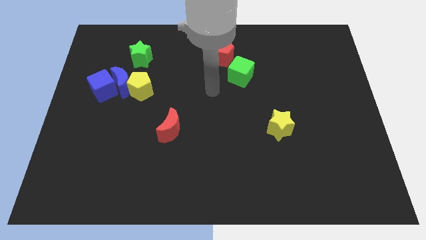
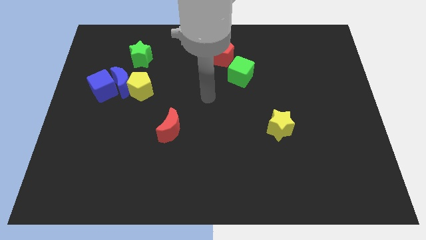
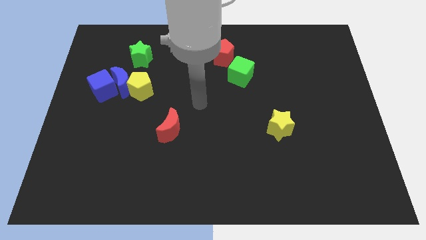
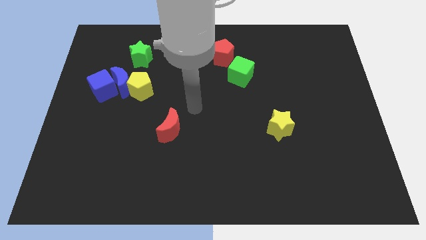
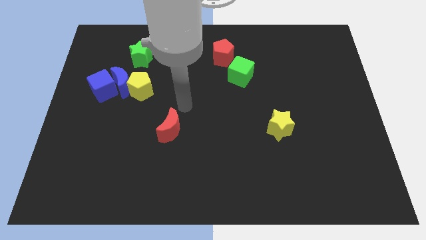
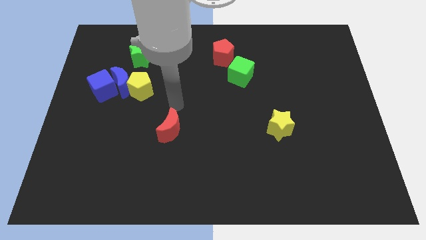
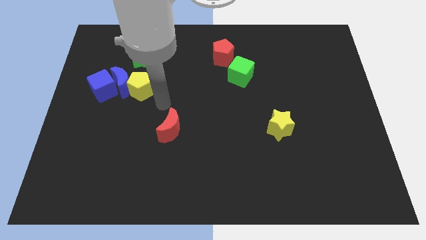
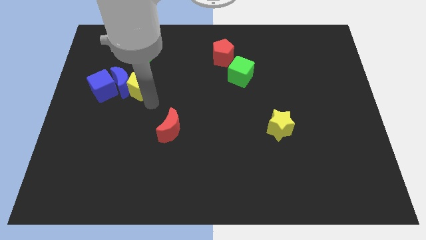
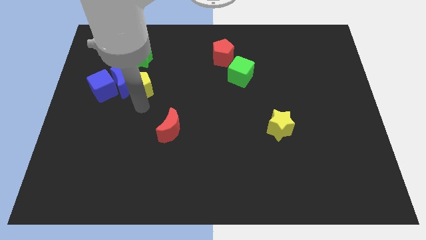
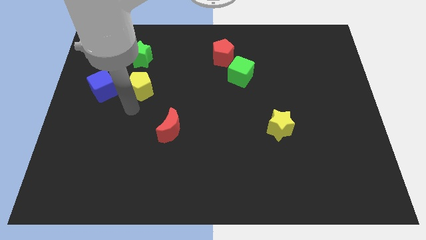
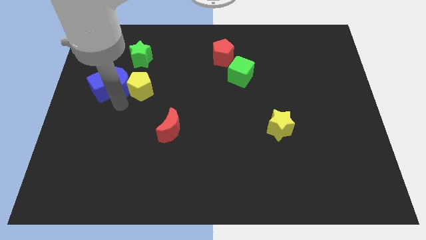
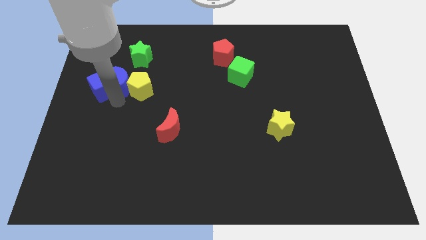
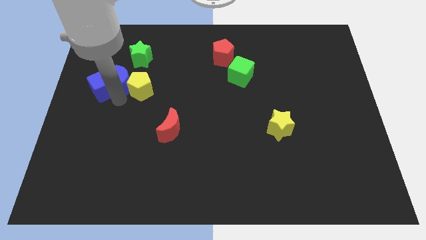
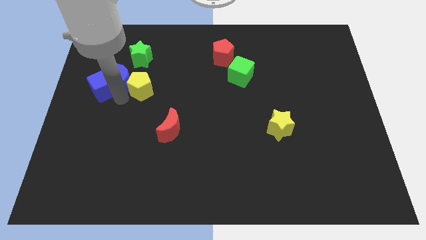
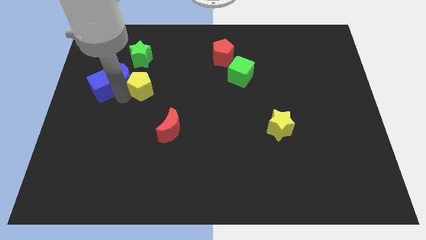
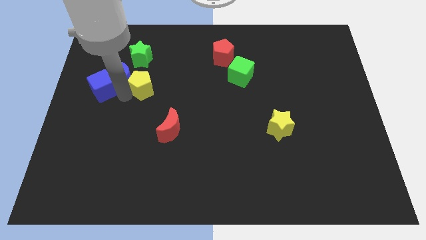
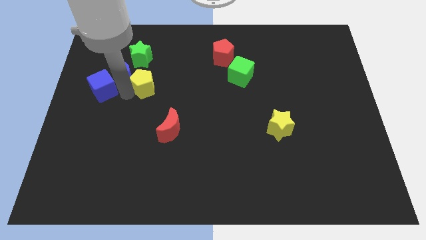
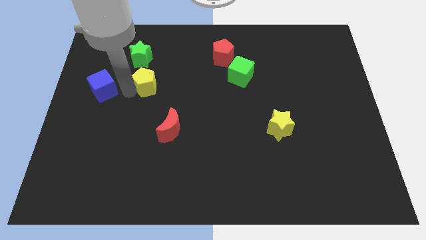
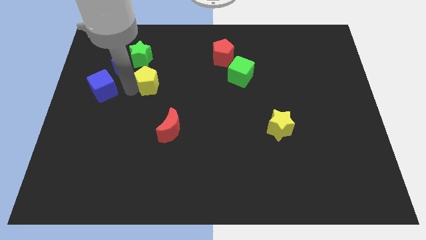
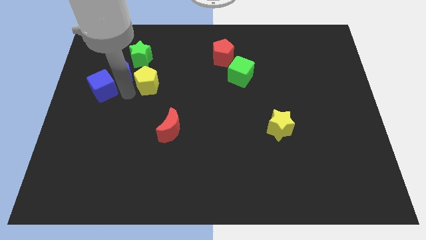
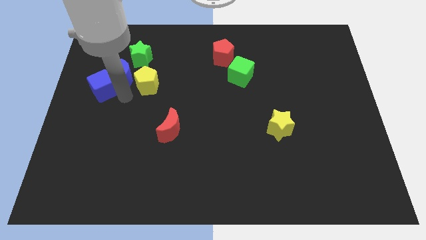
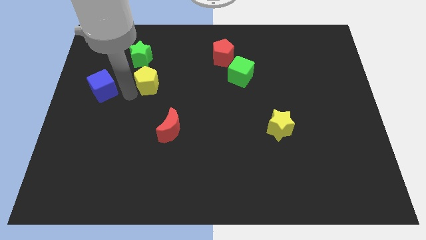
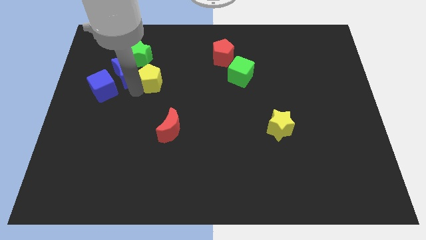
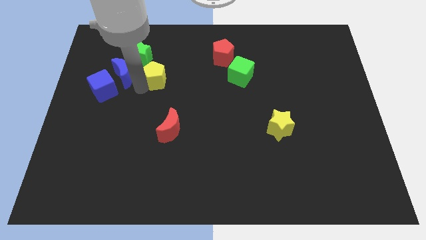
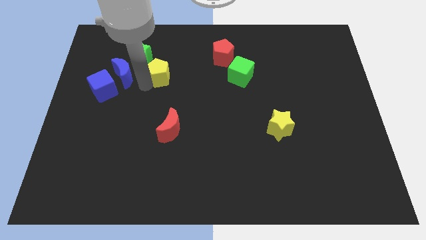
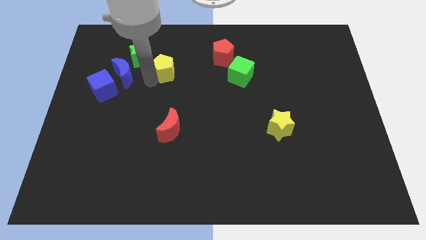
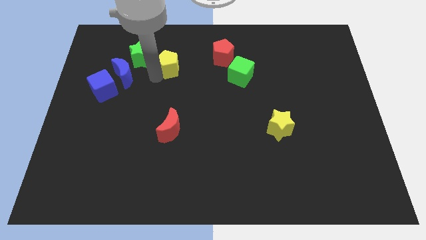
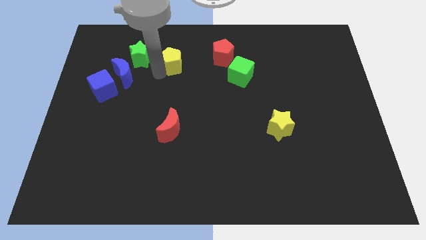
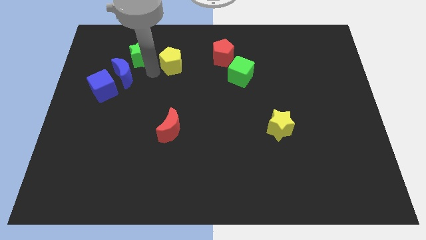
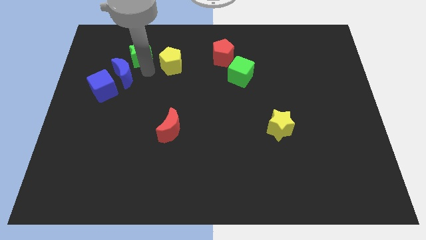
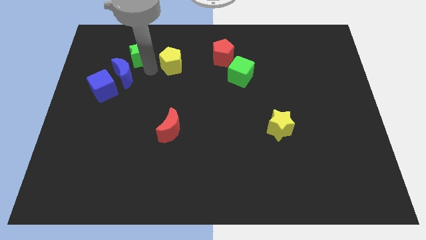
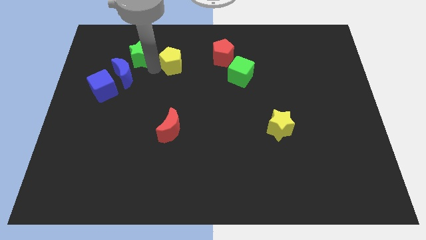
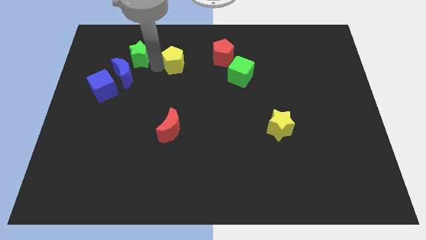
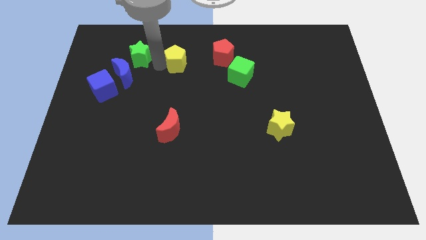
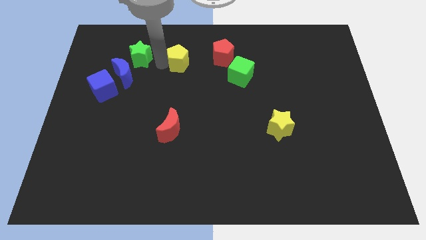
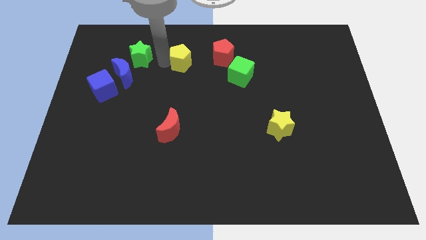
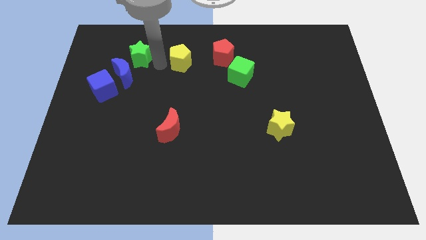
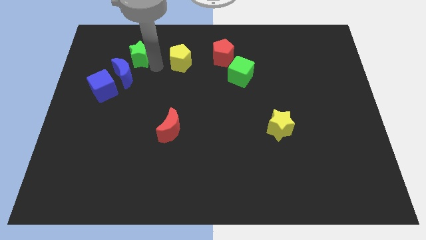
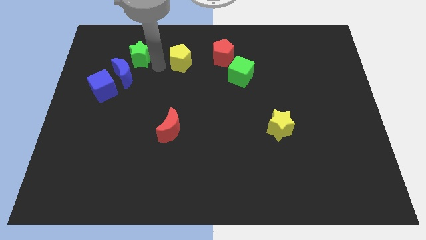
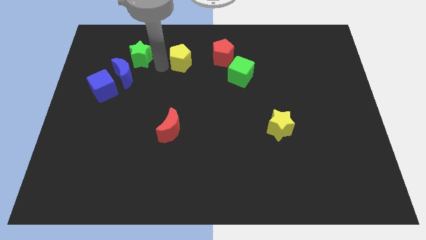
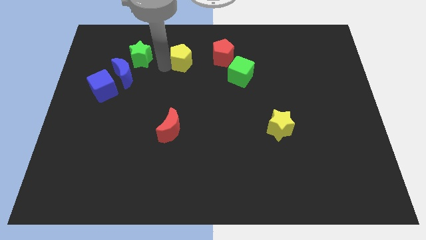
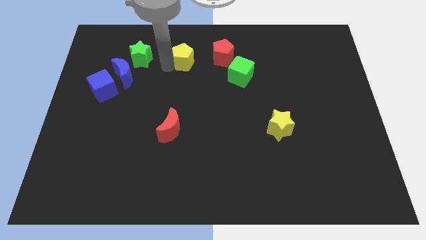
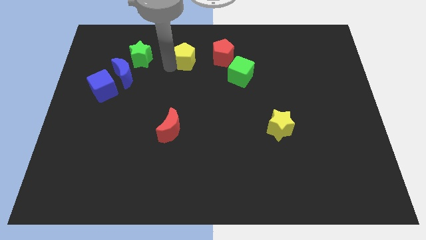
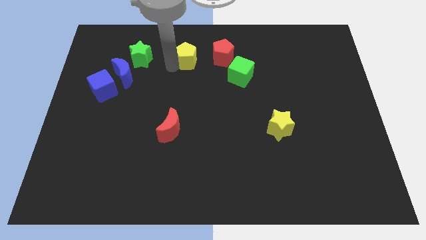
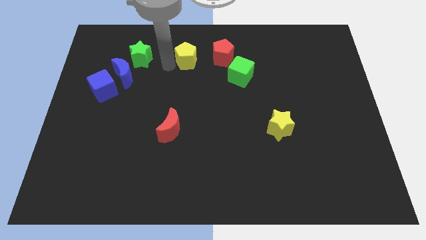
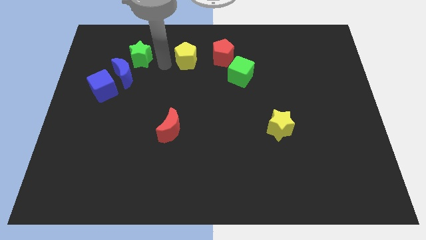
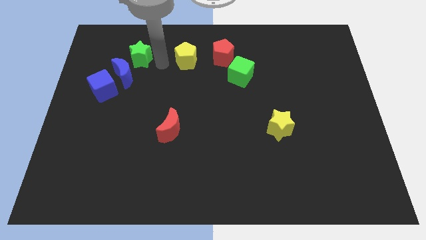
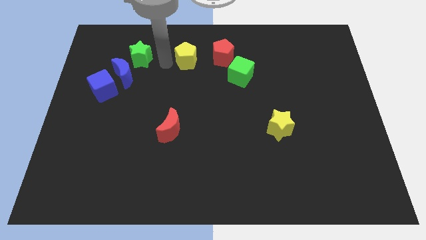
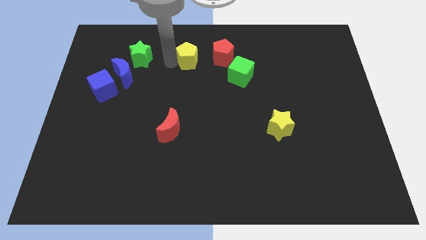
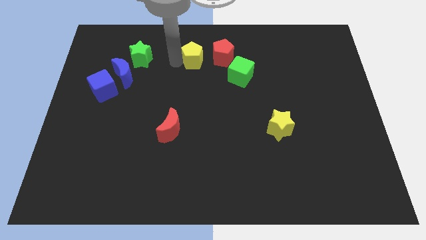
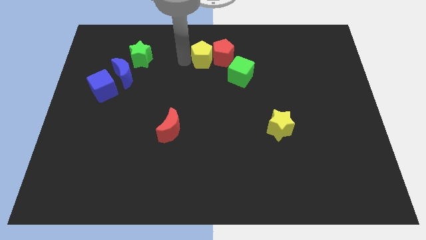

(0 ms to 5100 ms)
put the yellow pentagon close to the red pentagon

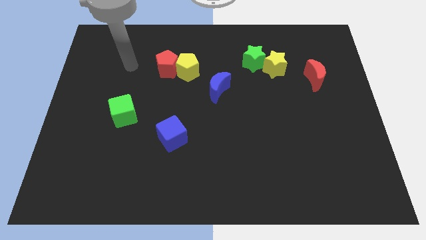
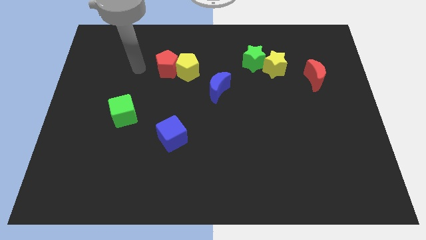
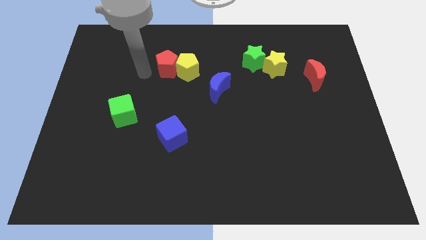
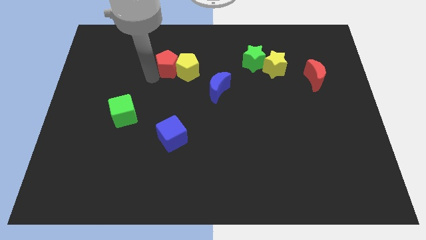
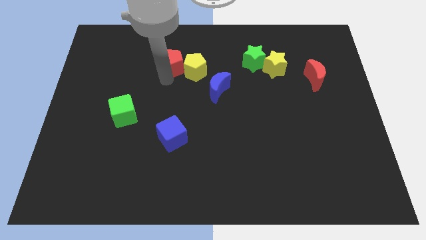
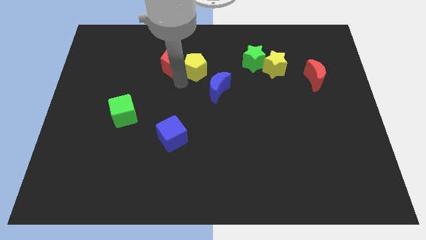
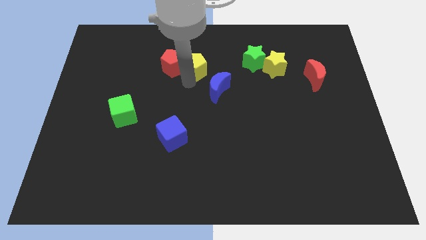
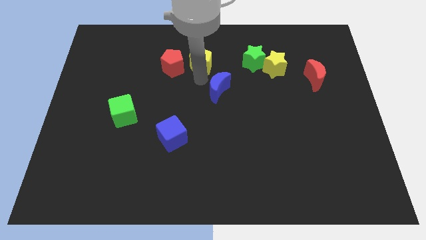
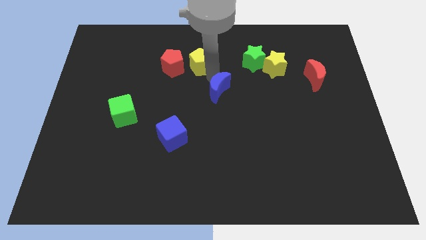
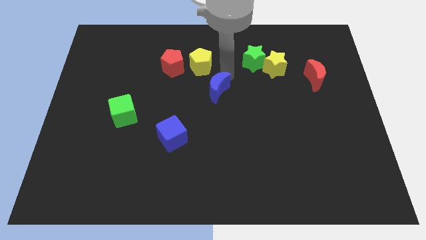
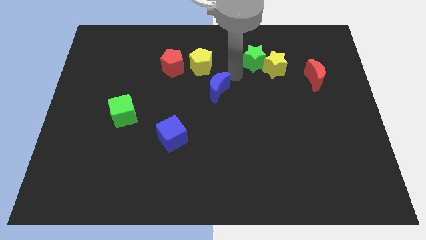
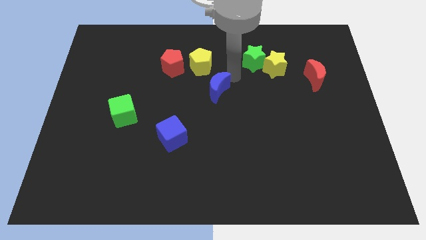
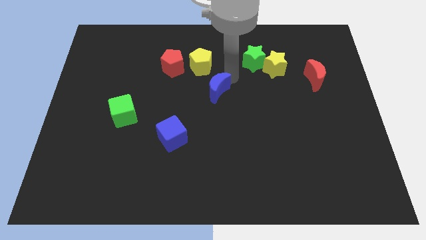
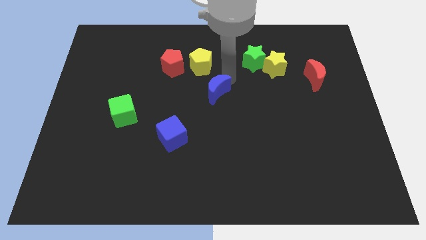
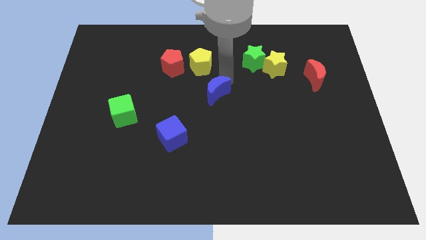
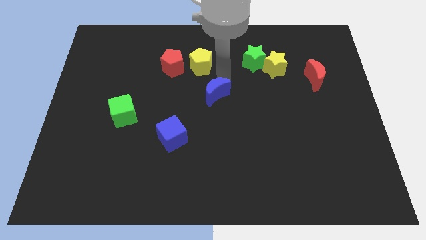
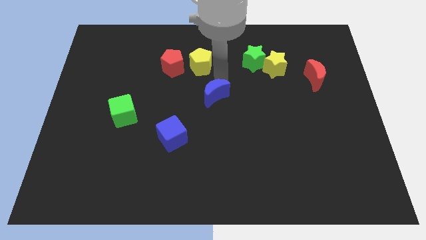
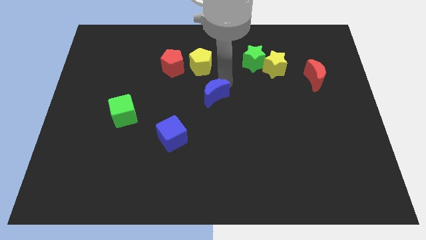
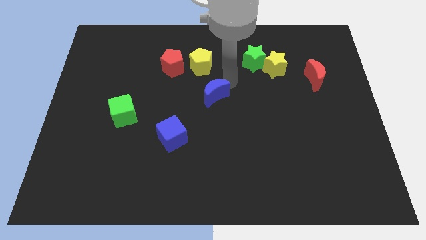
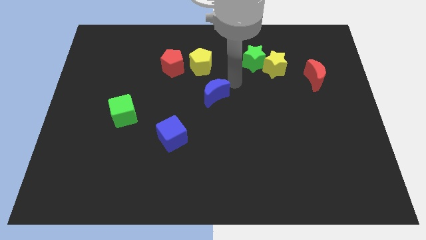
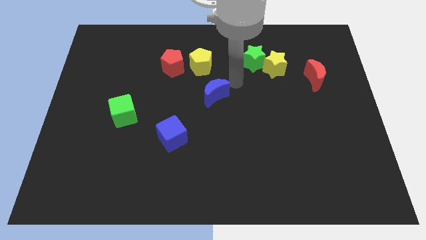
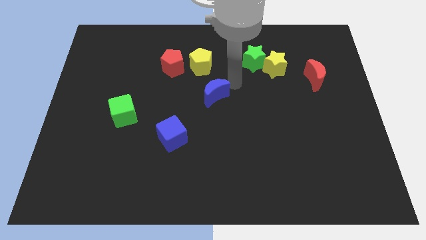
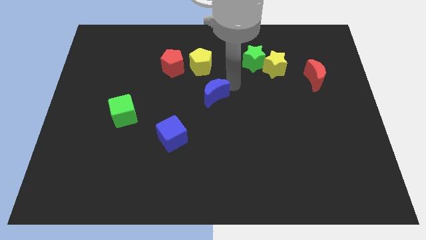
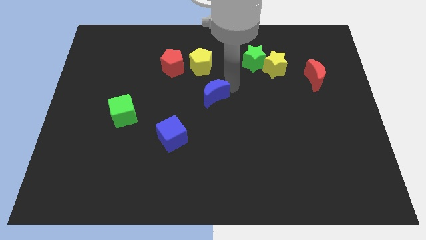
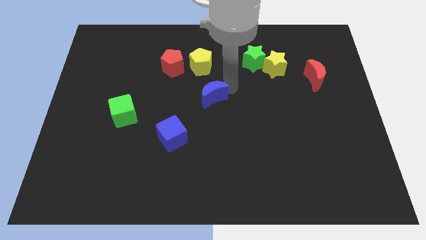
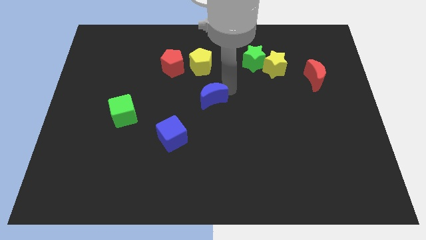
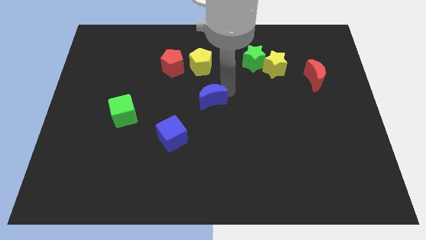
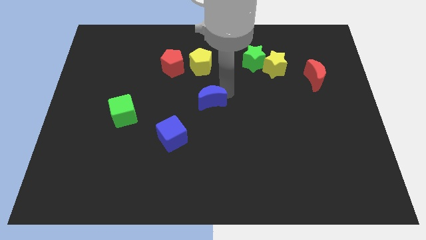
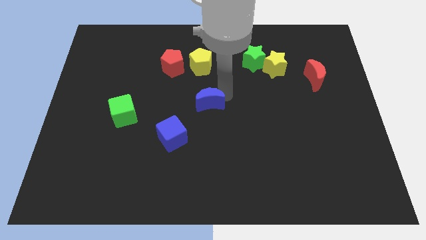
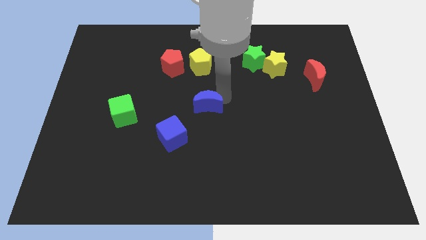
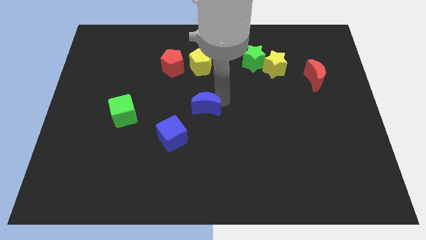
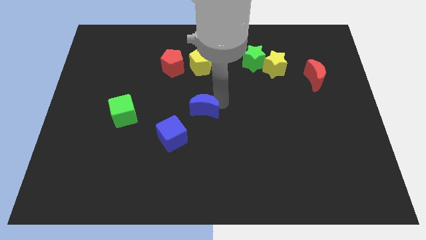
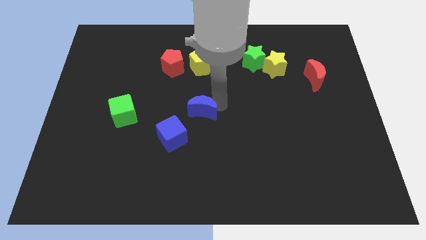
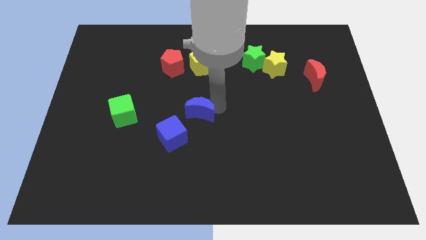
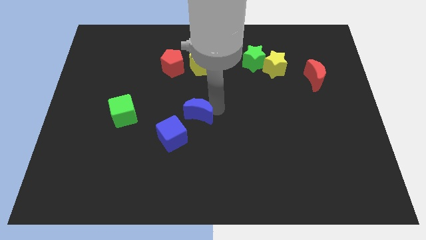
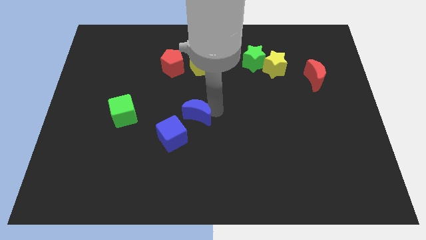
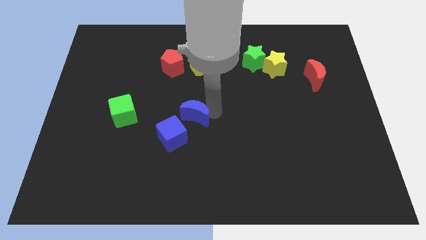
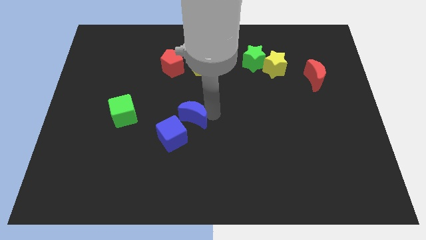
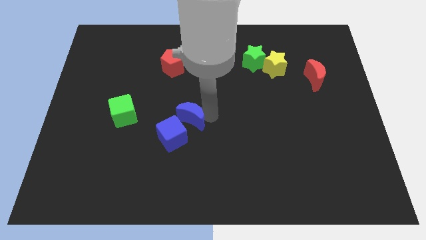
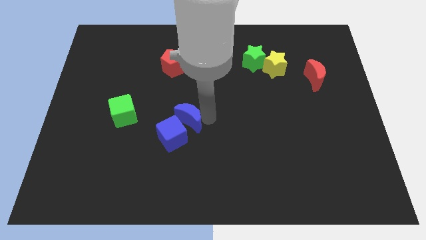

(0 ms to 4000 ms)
slide the blue moon to the blue cube
